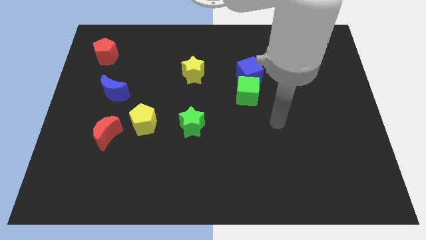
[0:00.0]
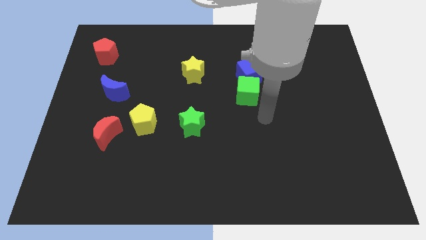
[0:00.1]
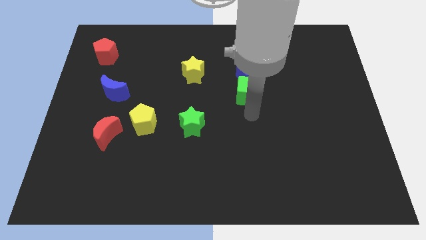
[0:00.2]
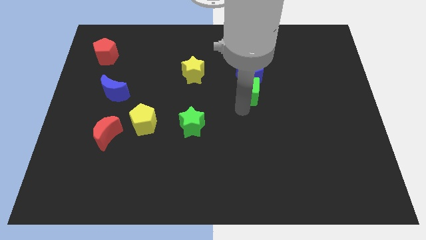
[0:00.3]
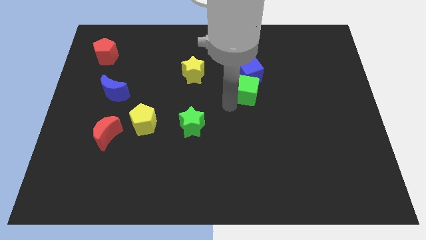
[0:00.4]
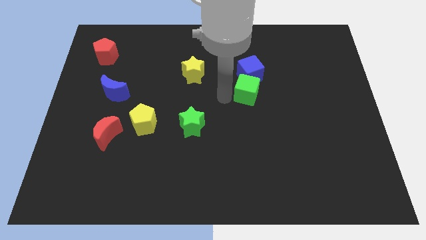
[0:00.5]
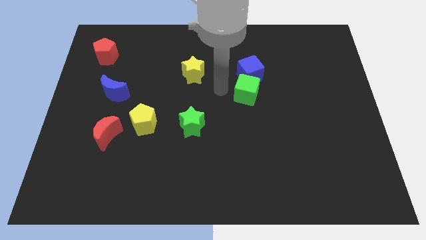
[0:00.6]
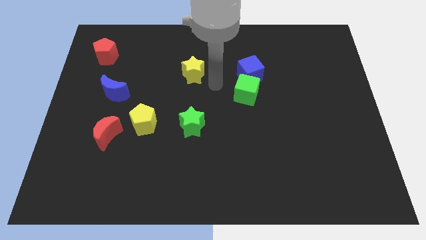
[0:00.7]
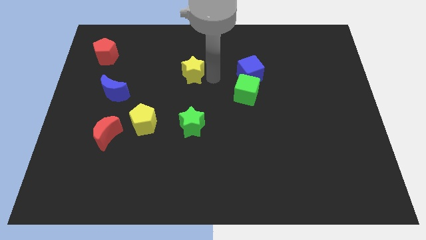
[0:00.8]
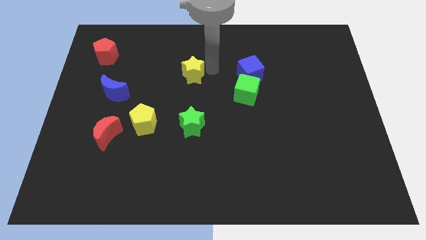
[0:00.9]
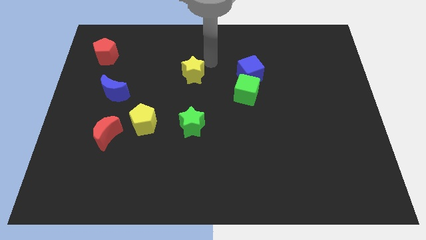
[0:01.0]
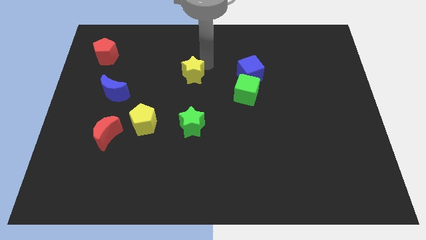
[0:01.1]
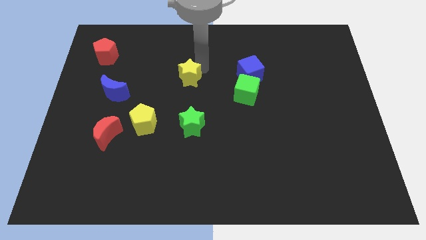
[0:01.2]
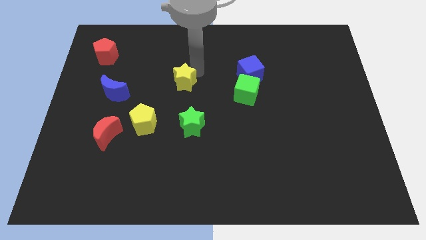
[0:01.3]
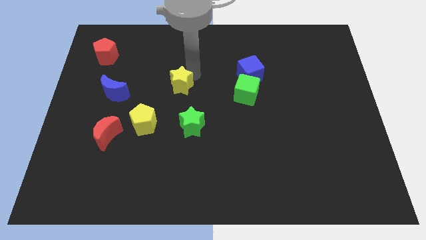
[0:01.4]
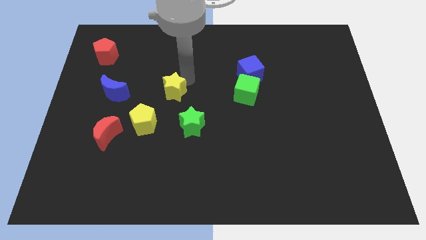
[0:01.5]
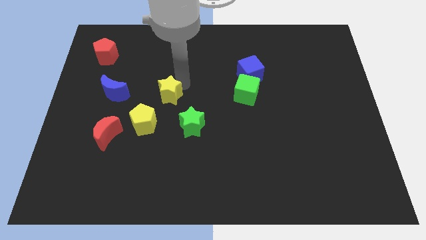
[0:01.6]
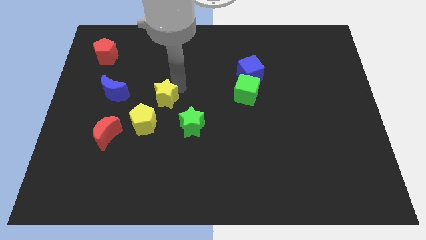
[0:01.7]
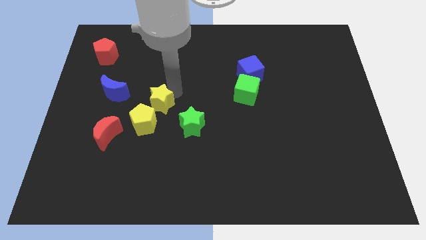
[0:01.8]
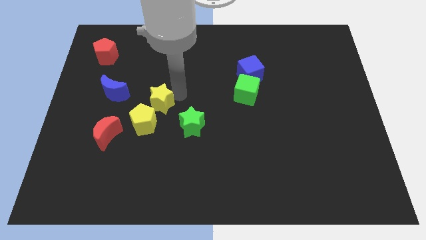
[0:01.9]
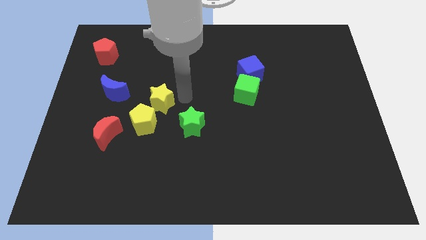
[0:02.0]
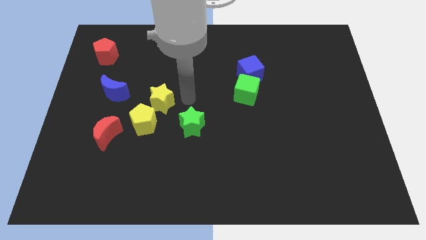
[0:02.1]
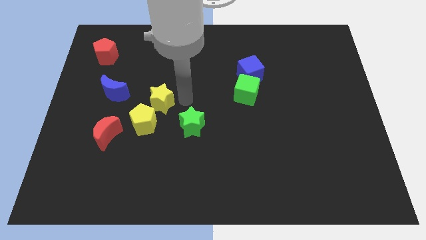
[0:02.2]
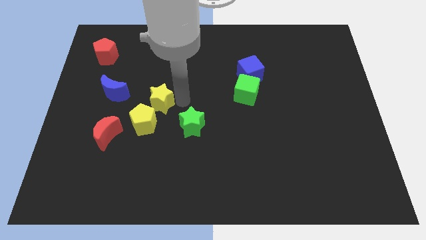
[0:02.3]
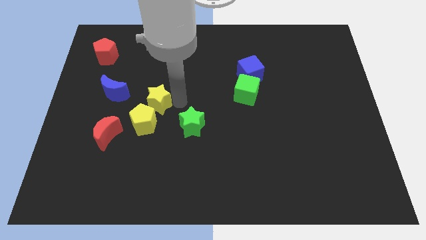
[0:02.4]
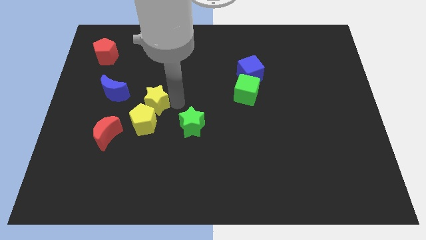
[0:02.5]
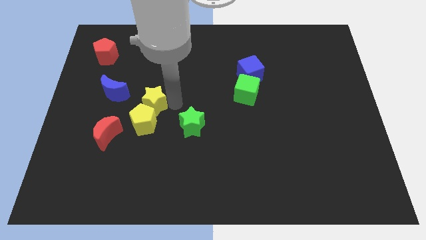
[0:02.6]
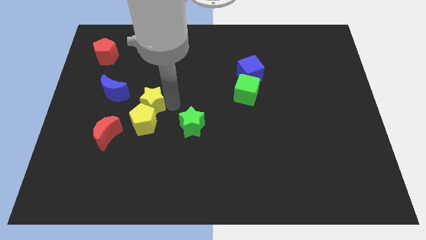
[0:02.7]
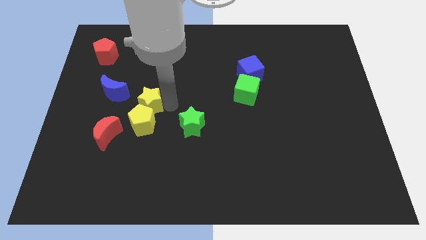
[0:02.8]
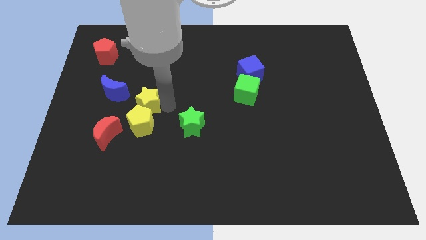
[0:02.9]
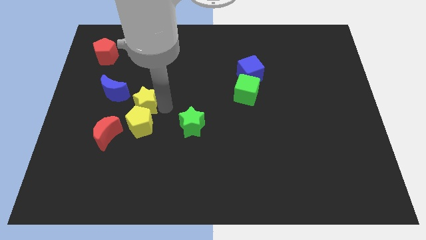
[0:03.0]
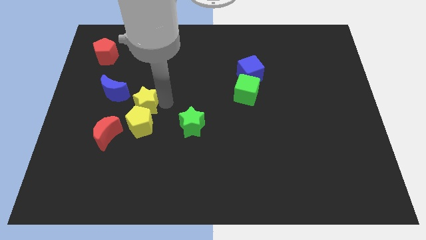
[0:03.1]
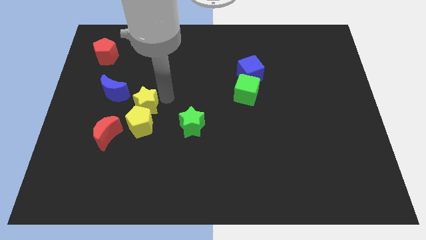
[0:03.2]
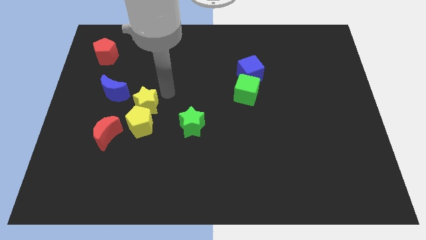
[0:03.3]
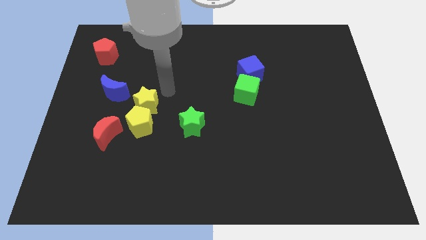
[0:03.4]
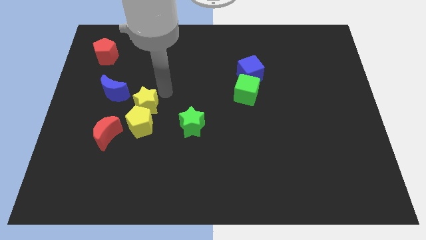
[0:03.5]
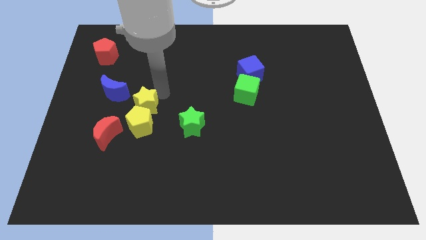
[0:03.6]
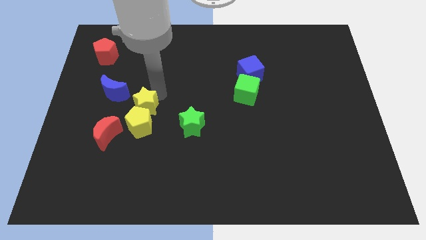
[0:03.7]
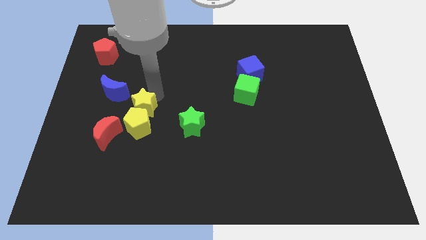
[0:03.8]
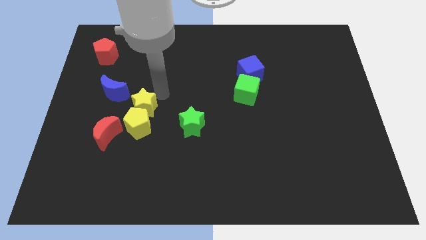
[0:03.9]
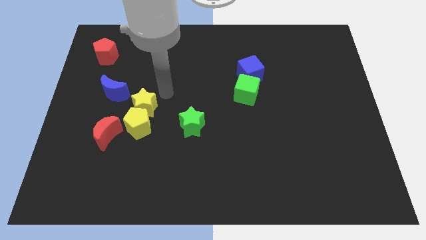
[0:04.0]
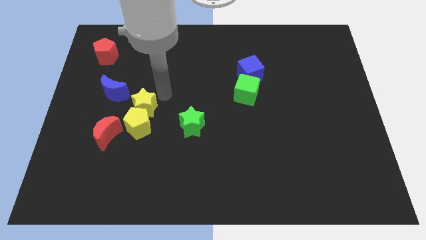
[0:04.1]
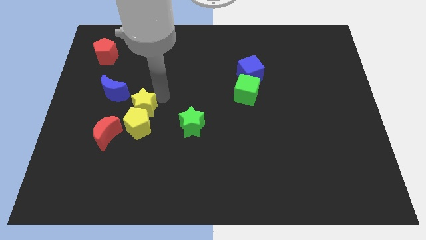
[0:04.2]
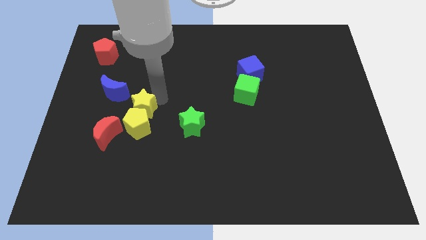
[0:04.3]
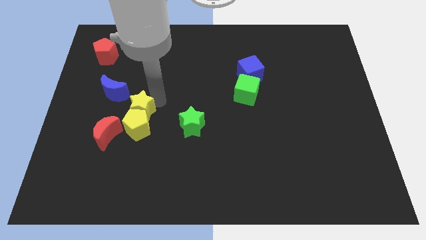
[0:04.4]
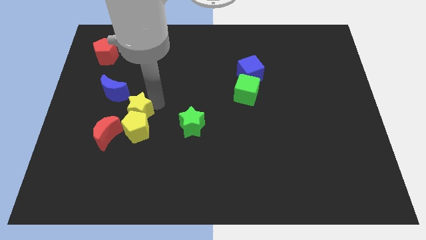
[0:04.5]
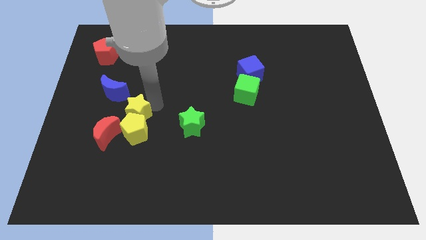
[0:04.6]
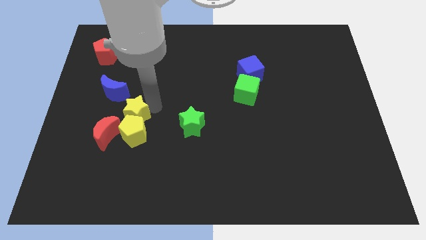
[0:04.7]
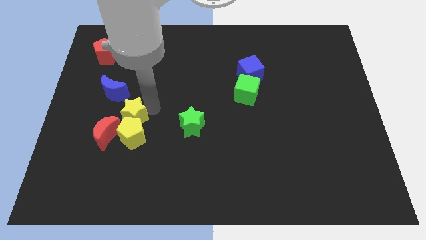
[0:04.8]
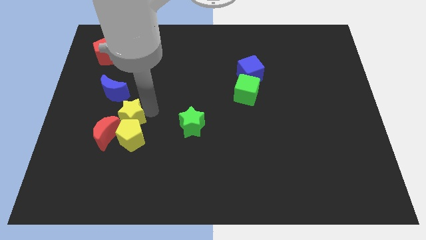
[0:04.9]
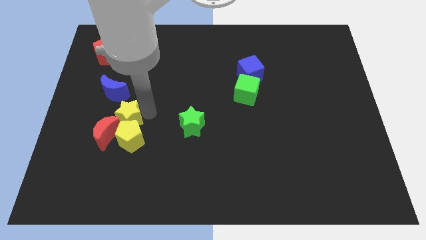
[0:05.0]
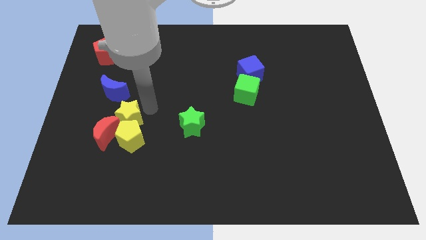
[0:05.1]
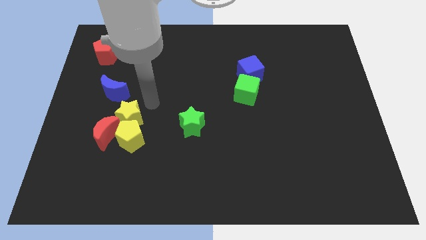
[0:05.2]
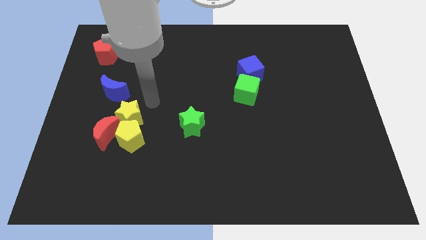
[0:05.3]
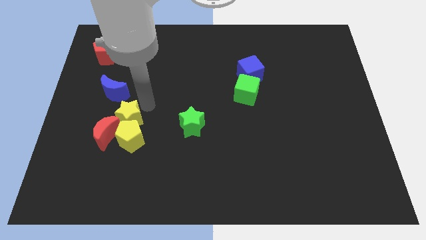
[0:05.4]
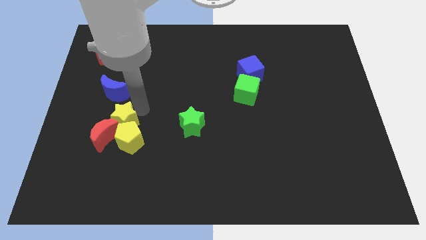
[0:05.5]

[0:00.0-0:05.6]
slide the yellow star close to the red moon

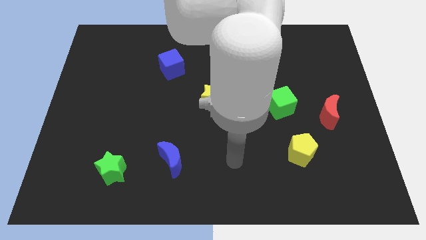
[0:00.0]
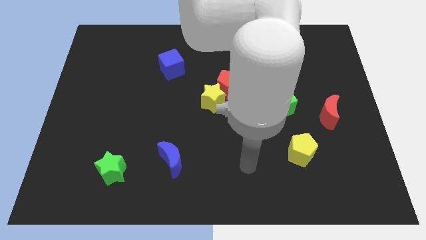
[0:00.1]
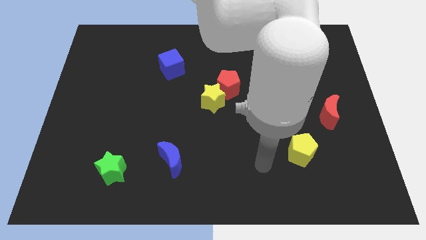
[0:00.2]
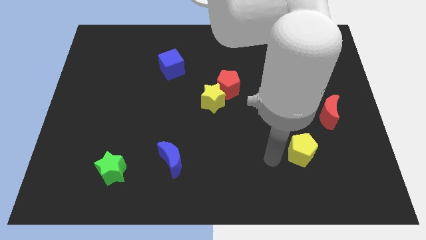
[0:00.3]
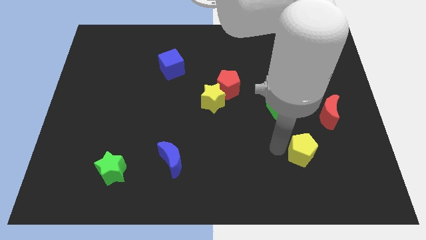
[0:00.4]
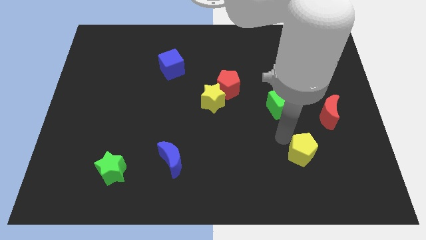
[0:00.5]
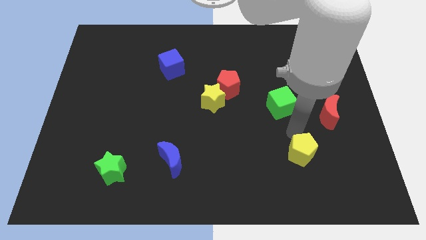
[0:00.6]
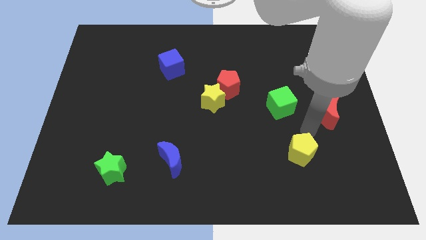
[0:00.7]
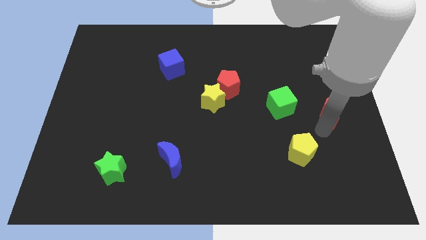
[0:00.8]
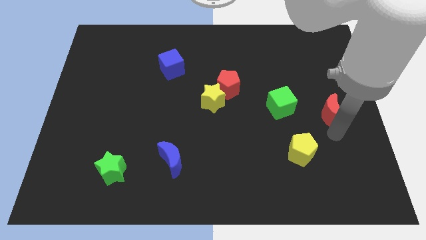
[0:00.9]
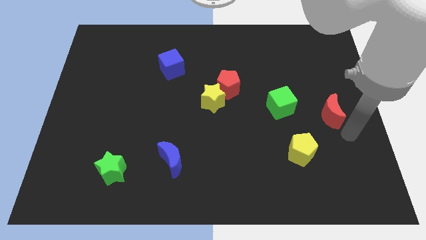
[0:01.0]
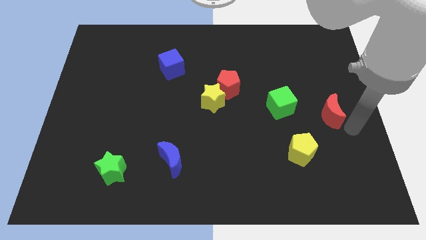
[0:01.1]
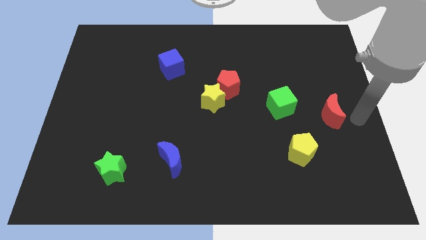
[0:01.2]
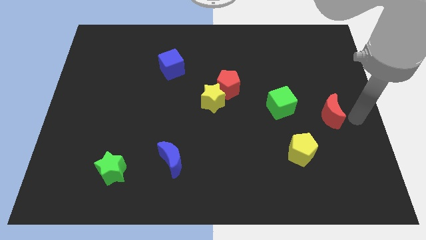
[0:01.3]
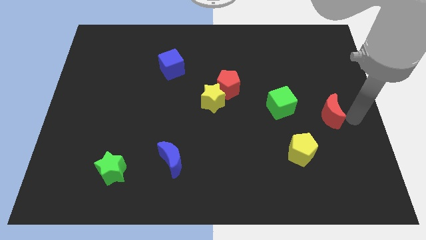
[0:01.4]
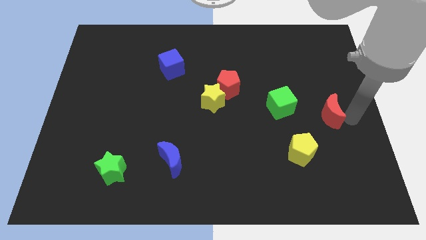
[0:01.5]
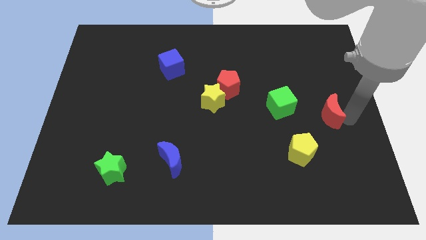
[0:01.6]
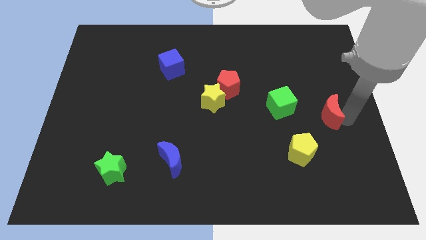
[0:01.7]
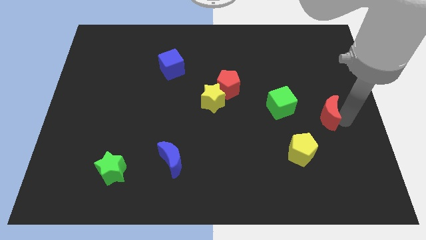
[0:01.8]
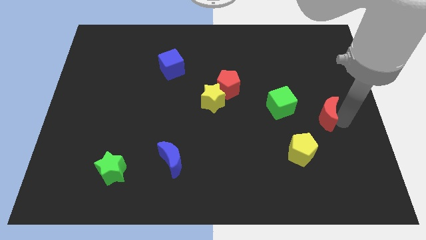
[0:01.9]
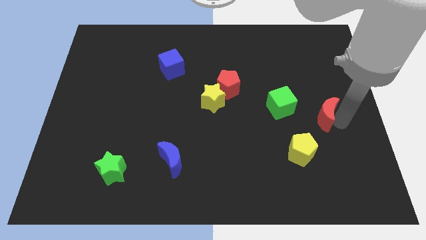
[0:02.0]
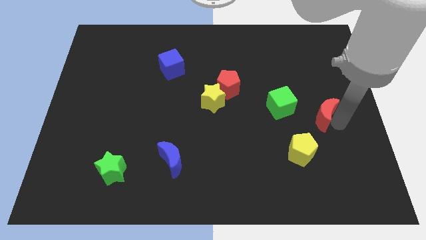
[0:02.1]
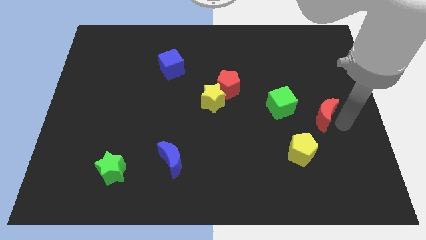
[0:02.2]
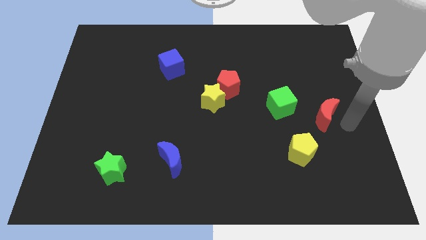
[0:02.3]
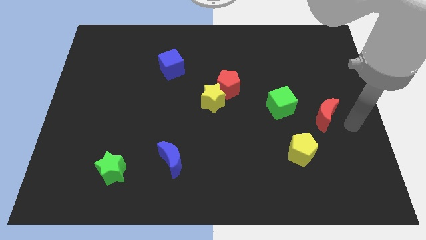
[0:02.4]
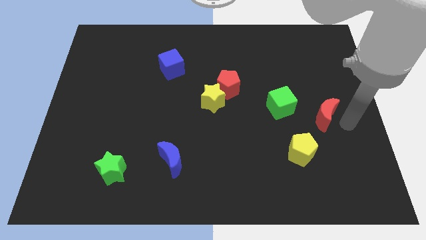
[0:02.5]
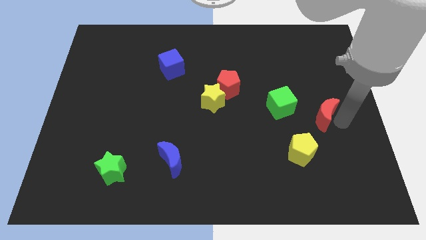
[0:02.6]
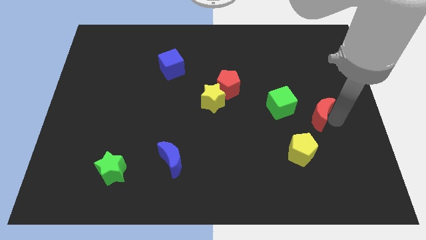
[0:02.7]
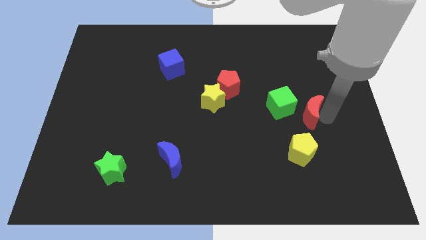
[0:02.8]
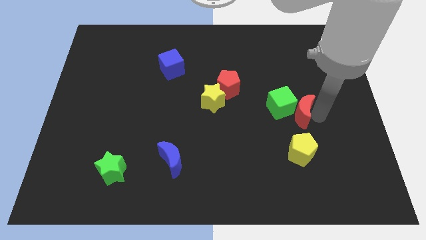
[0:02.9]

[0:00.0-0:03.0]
put the red moon next to the green cube
